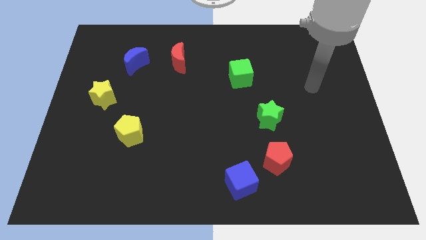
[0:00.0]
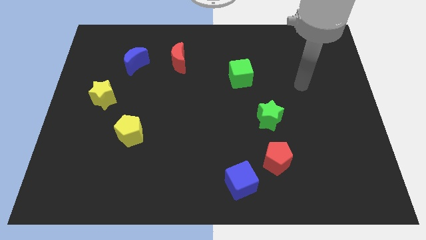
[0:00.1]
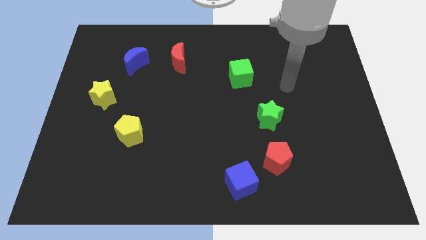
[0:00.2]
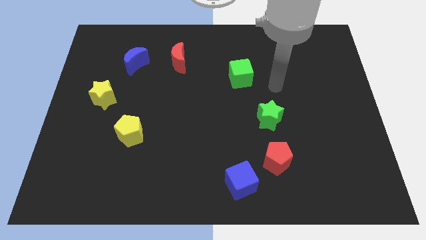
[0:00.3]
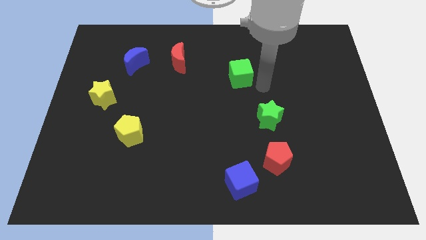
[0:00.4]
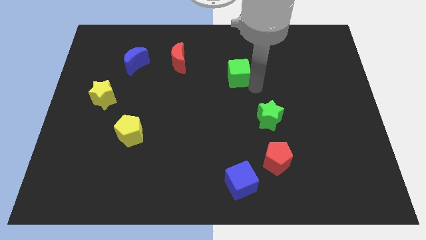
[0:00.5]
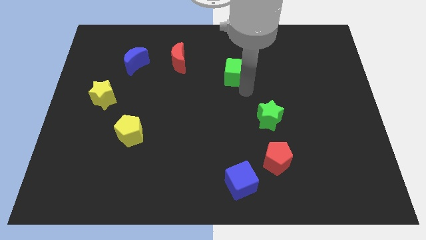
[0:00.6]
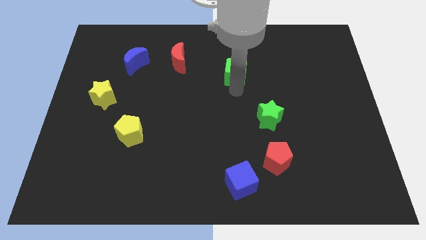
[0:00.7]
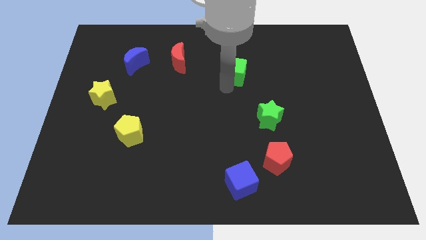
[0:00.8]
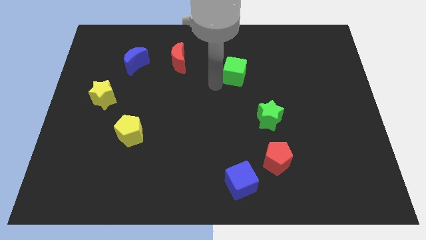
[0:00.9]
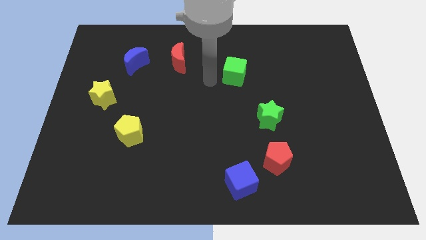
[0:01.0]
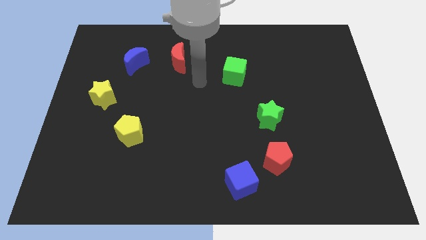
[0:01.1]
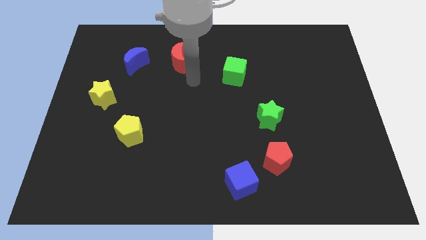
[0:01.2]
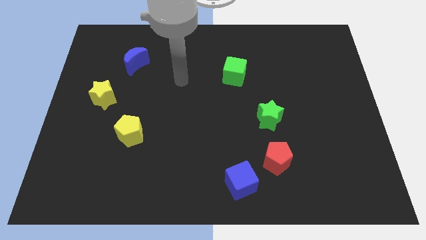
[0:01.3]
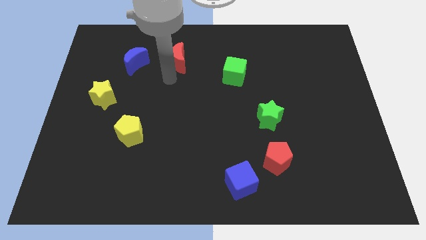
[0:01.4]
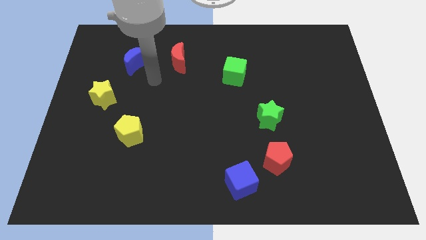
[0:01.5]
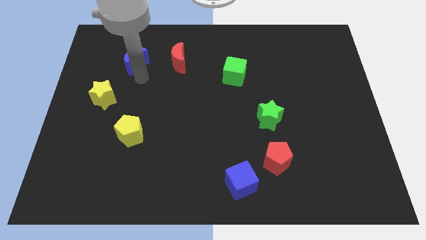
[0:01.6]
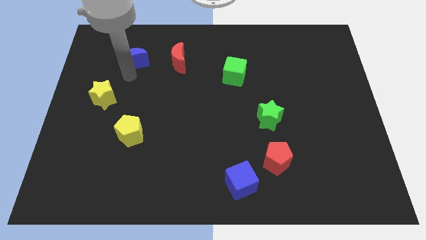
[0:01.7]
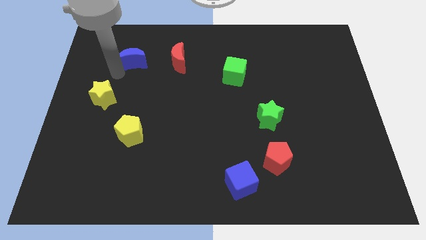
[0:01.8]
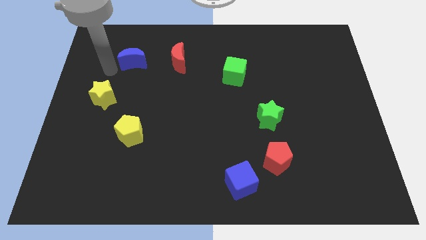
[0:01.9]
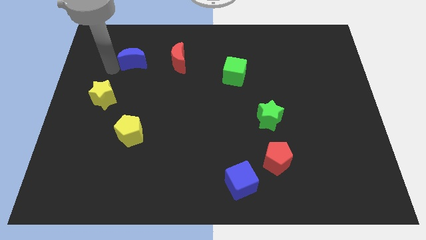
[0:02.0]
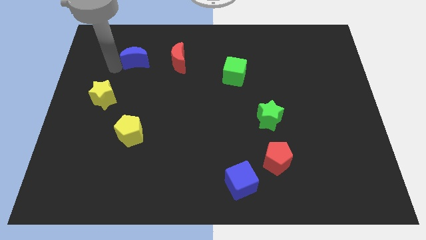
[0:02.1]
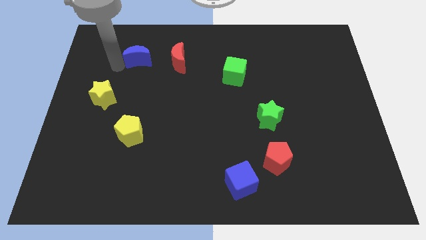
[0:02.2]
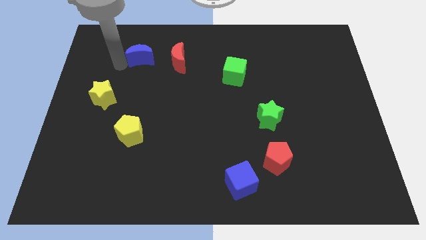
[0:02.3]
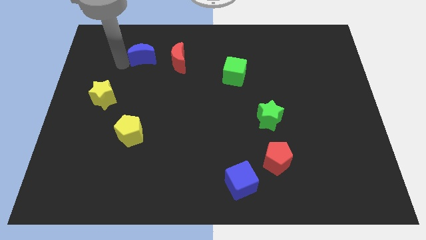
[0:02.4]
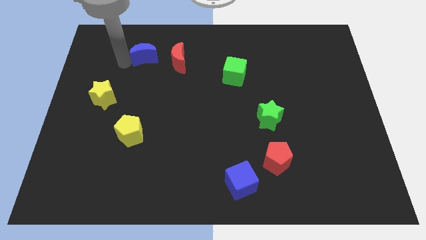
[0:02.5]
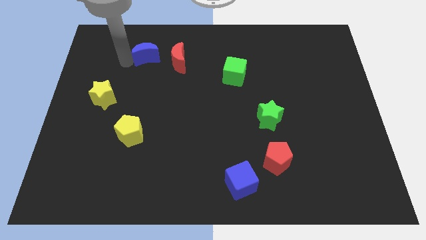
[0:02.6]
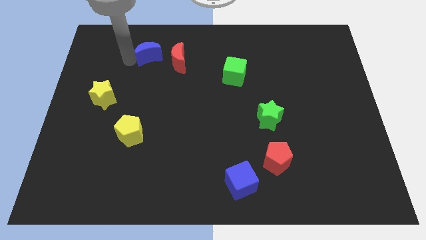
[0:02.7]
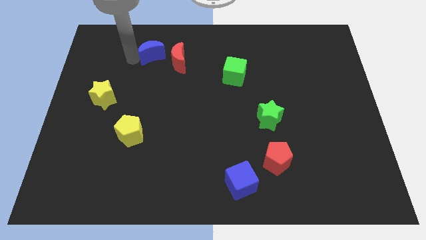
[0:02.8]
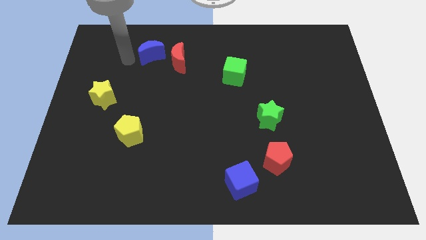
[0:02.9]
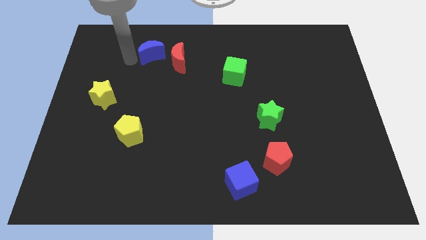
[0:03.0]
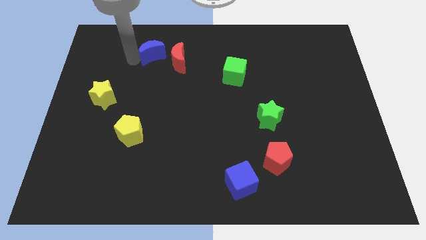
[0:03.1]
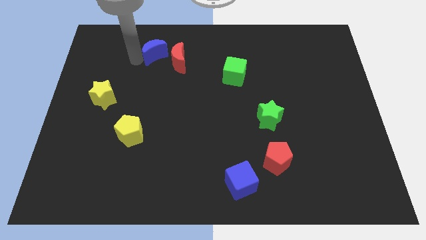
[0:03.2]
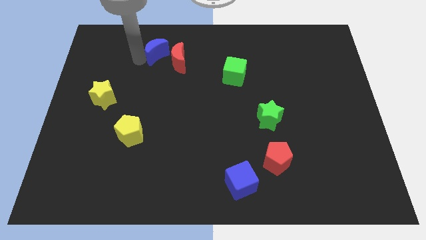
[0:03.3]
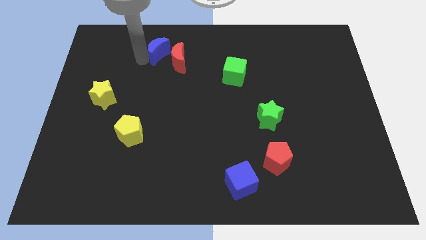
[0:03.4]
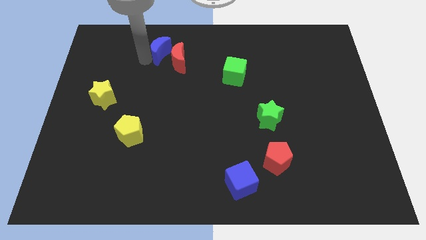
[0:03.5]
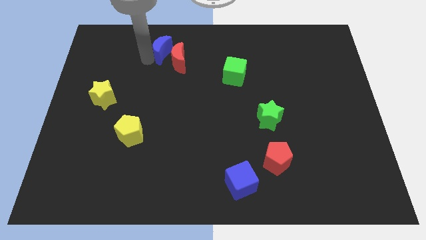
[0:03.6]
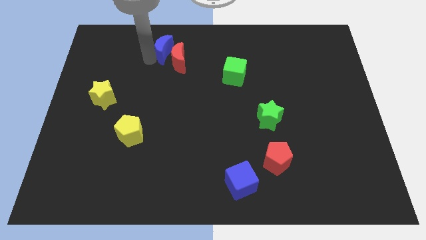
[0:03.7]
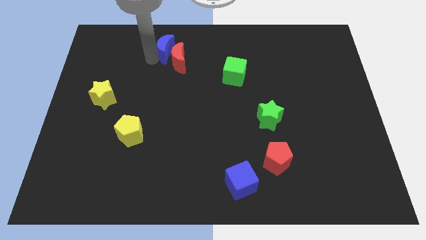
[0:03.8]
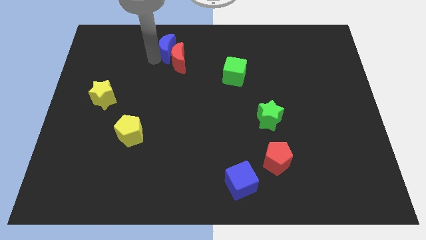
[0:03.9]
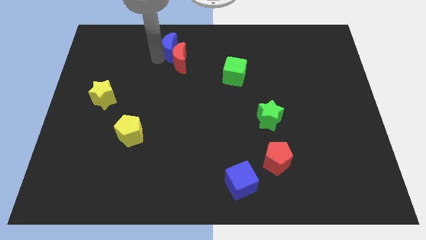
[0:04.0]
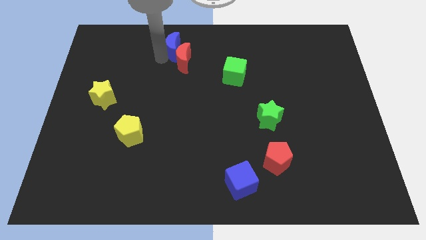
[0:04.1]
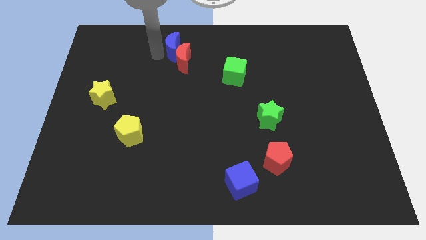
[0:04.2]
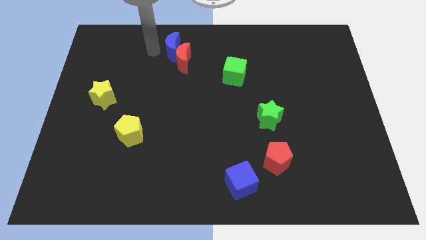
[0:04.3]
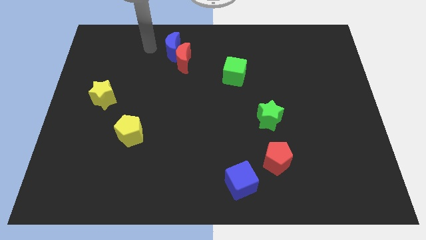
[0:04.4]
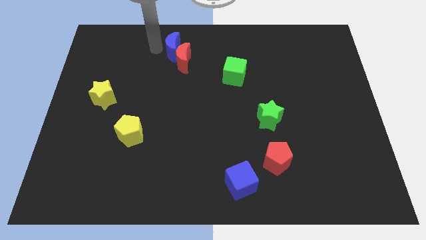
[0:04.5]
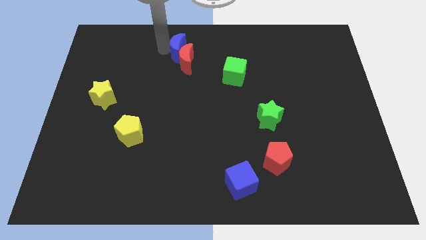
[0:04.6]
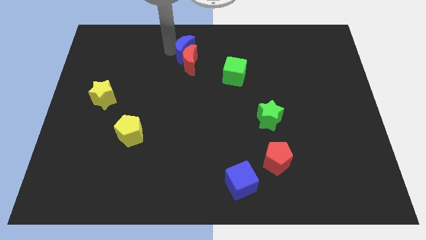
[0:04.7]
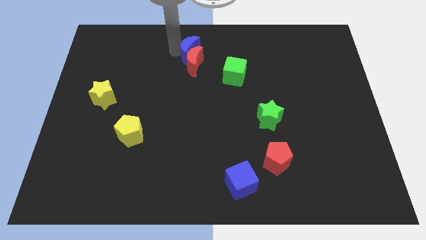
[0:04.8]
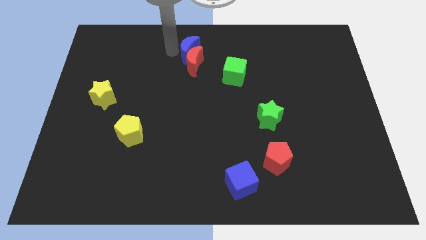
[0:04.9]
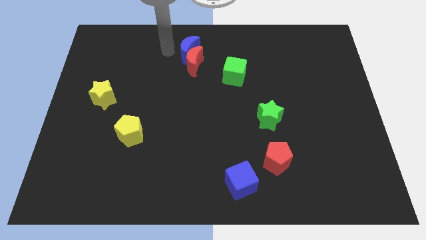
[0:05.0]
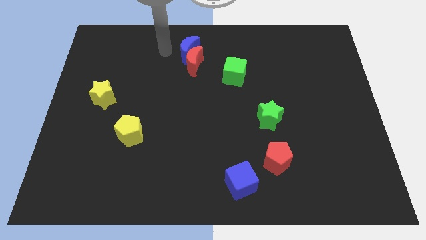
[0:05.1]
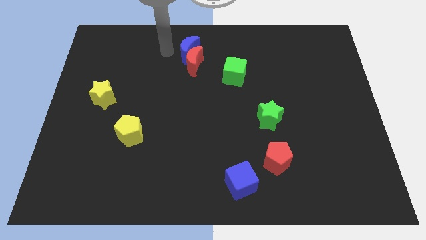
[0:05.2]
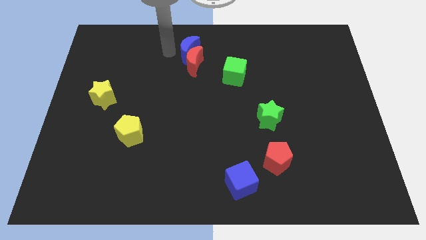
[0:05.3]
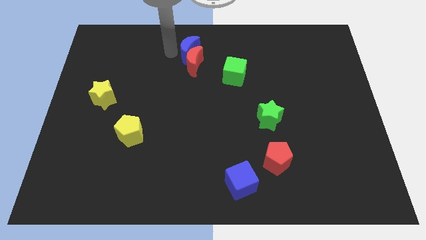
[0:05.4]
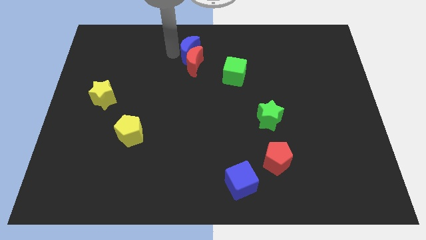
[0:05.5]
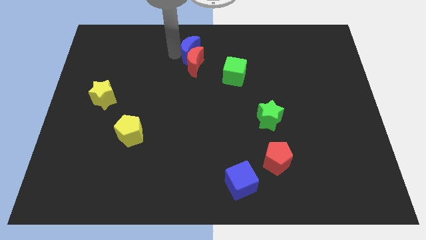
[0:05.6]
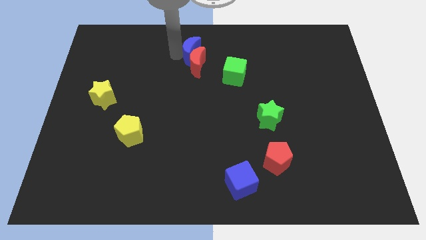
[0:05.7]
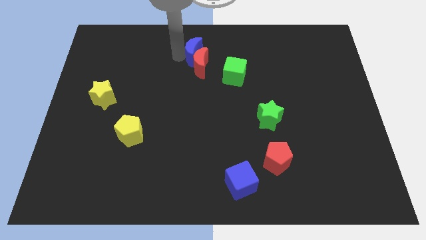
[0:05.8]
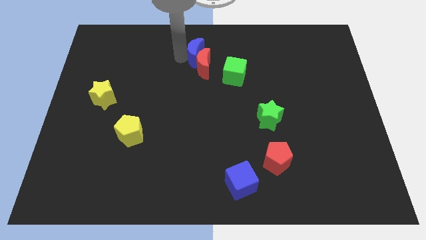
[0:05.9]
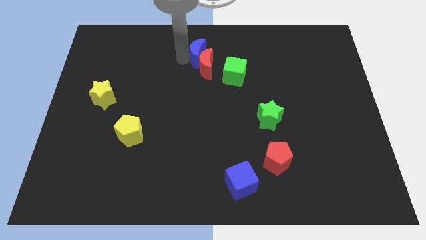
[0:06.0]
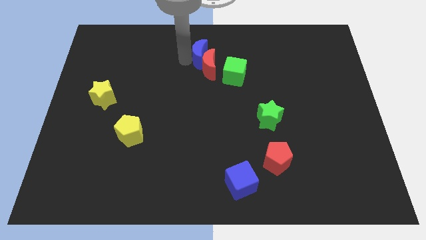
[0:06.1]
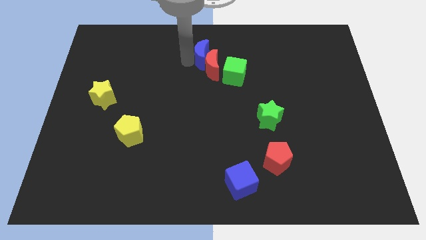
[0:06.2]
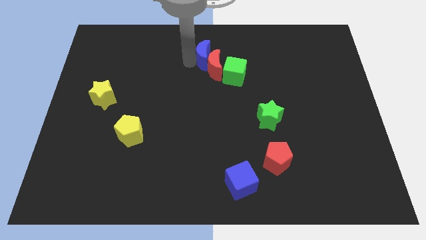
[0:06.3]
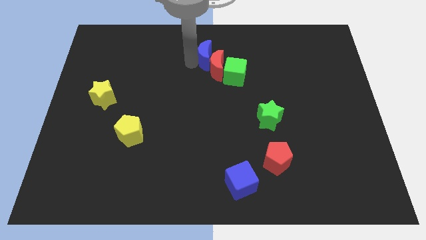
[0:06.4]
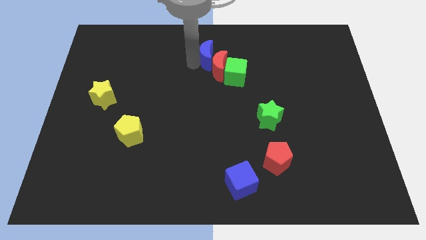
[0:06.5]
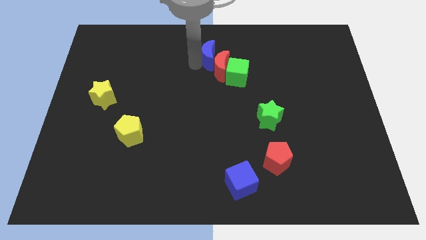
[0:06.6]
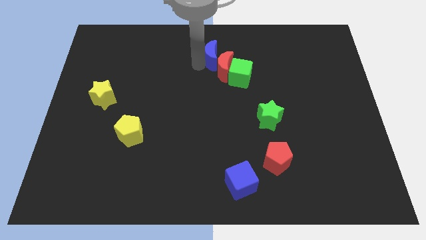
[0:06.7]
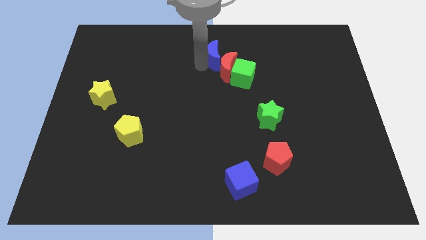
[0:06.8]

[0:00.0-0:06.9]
push the blue moon right

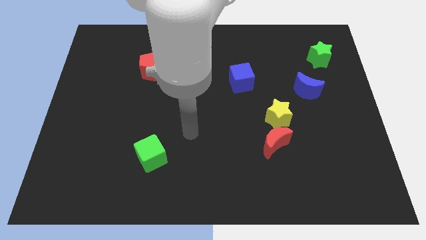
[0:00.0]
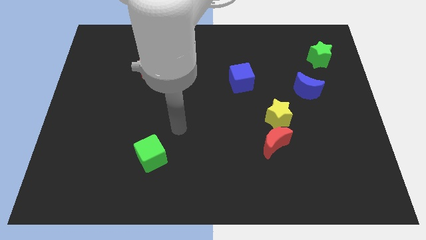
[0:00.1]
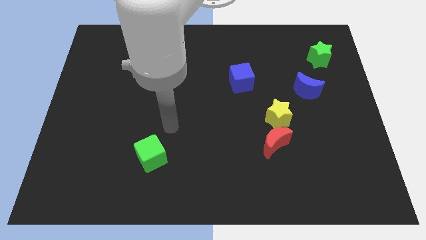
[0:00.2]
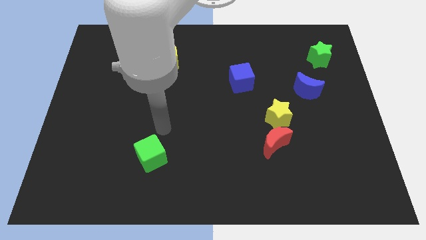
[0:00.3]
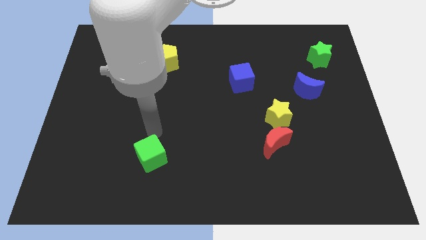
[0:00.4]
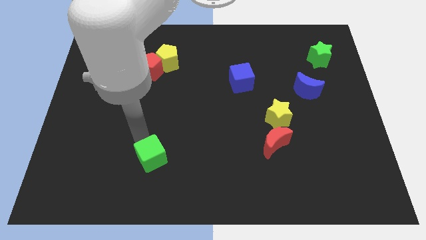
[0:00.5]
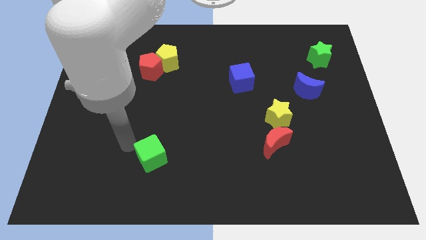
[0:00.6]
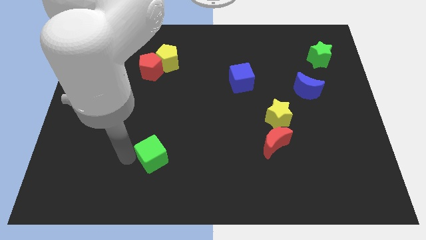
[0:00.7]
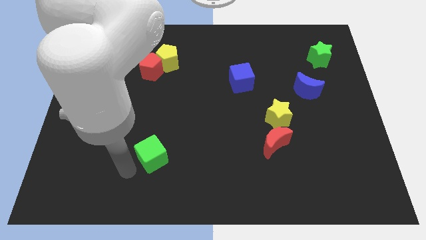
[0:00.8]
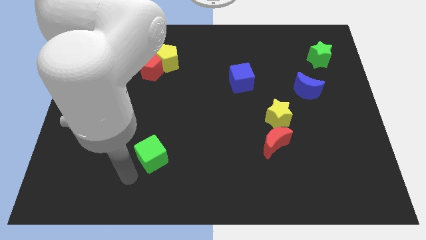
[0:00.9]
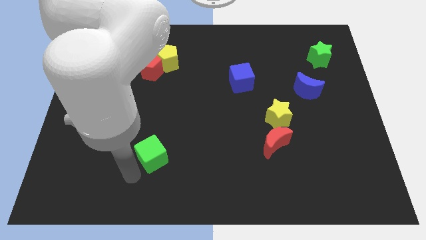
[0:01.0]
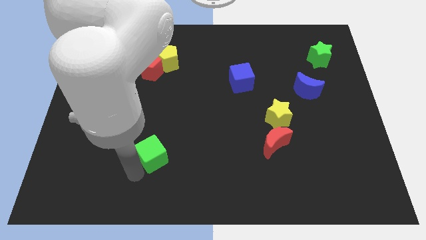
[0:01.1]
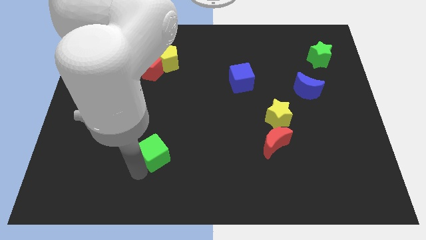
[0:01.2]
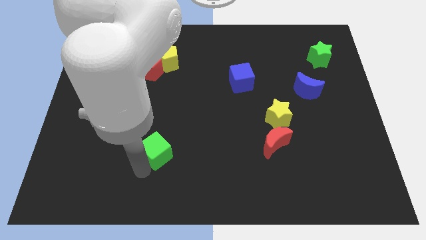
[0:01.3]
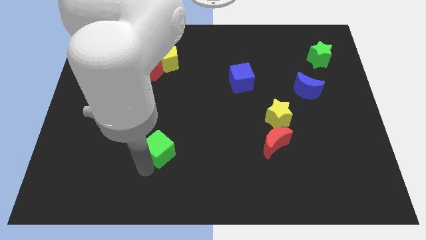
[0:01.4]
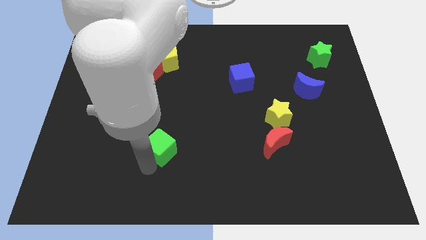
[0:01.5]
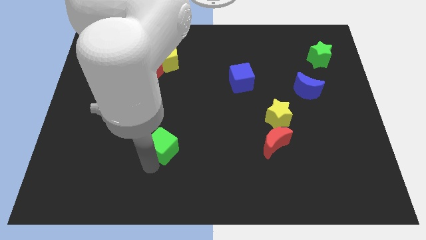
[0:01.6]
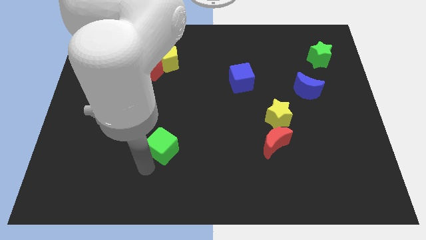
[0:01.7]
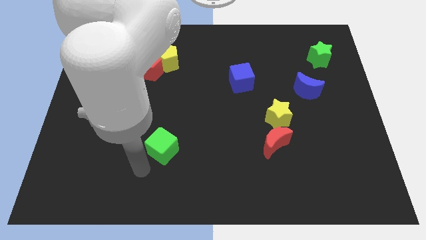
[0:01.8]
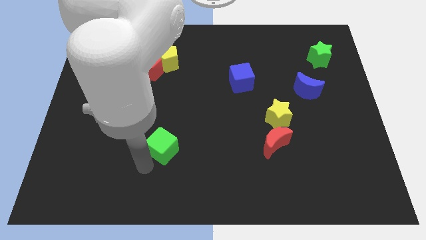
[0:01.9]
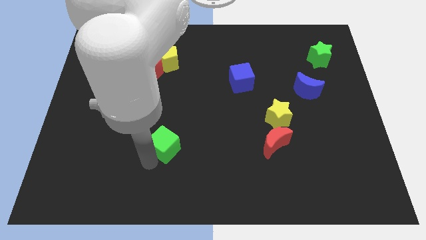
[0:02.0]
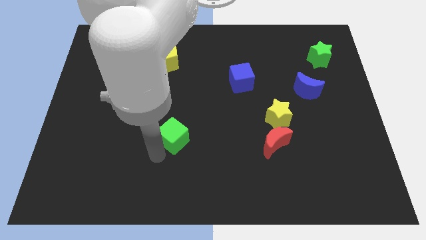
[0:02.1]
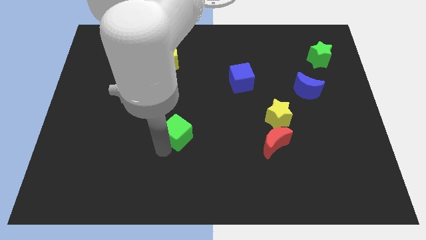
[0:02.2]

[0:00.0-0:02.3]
slide the green cube somewhat up and right
